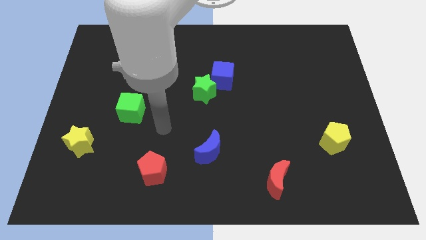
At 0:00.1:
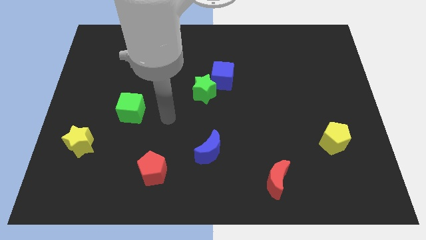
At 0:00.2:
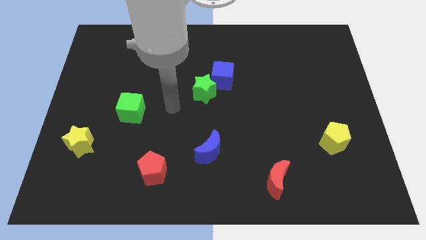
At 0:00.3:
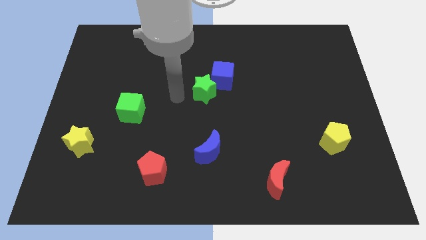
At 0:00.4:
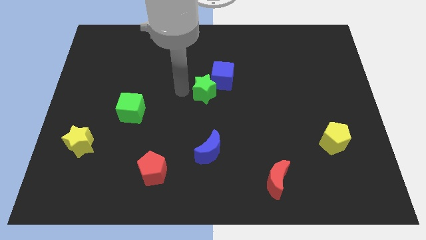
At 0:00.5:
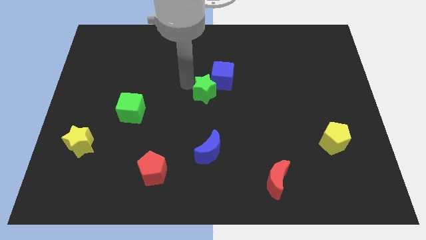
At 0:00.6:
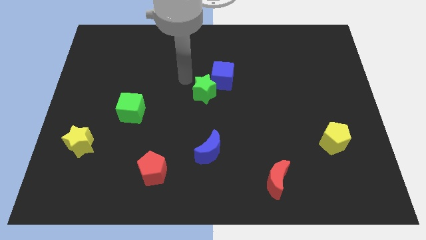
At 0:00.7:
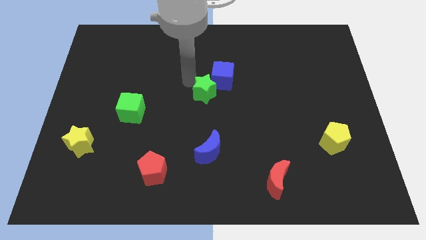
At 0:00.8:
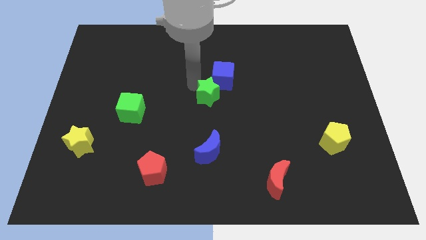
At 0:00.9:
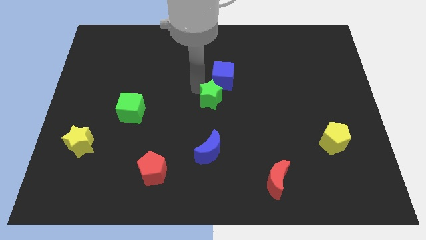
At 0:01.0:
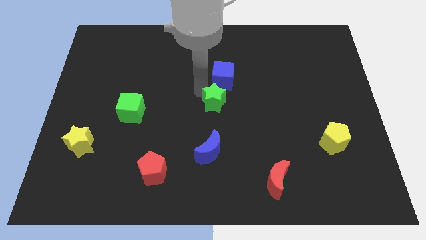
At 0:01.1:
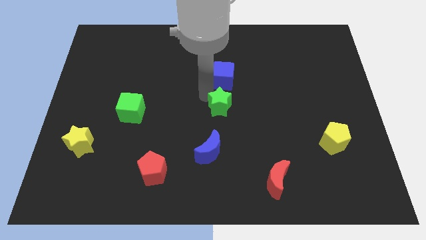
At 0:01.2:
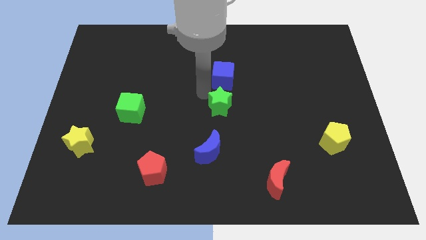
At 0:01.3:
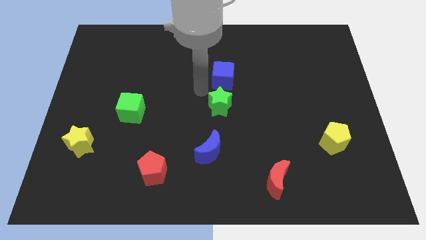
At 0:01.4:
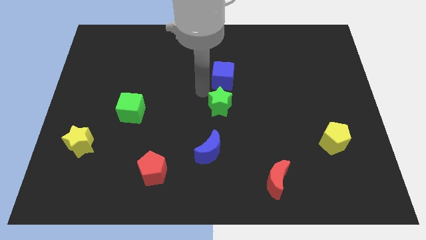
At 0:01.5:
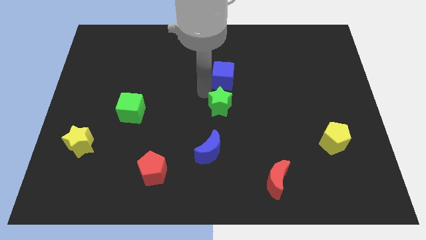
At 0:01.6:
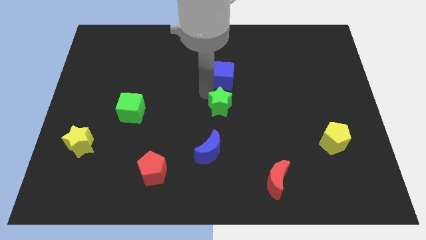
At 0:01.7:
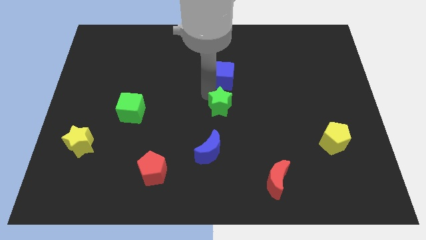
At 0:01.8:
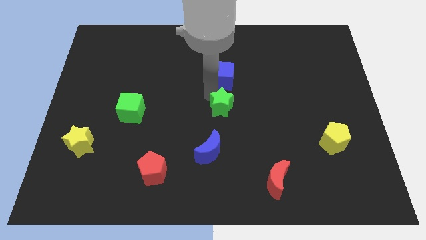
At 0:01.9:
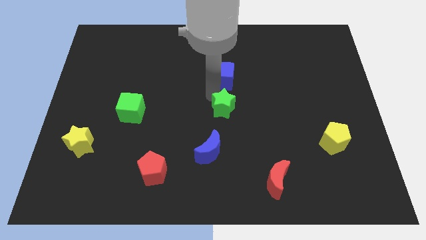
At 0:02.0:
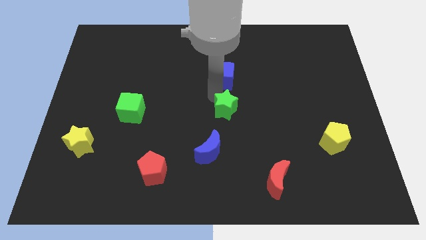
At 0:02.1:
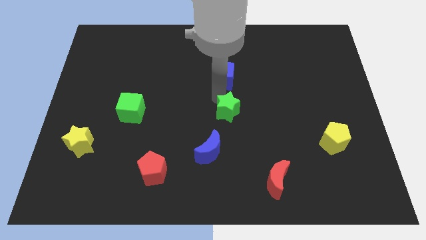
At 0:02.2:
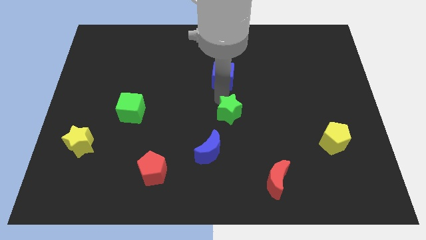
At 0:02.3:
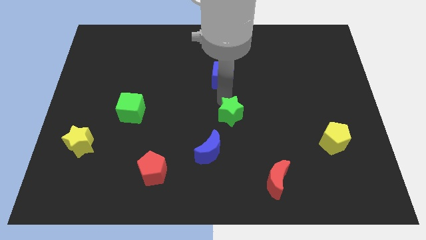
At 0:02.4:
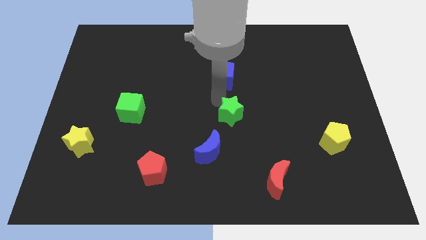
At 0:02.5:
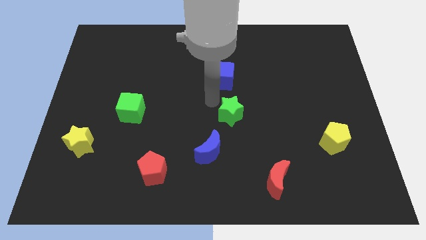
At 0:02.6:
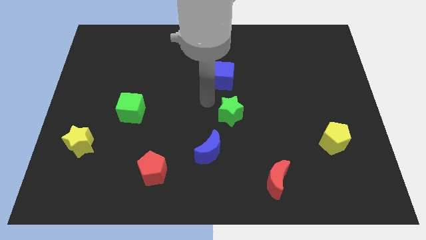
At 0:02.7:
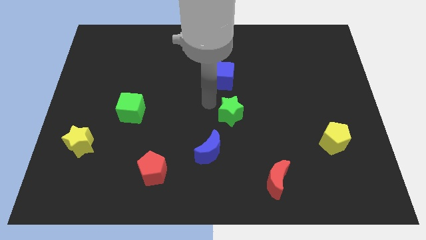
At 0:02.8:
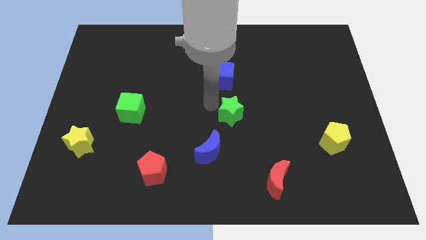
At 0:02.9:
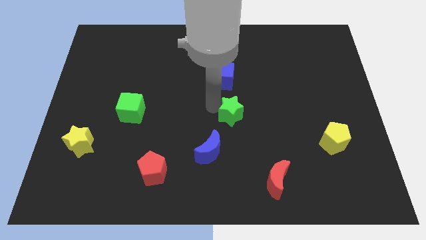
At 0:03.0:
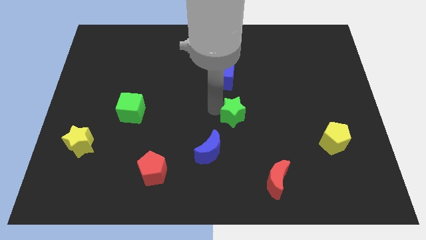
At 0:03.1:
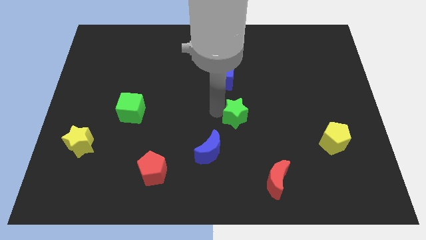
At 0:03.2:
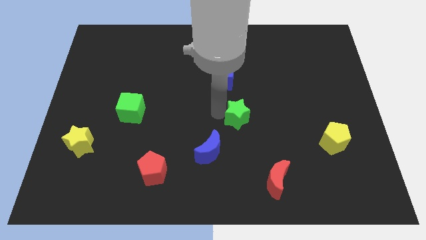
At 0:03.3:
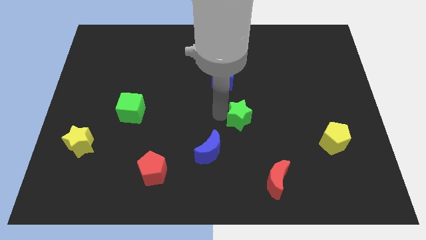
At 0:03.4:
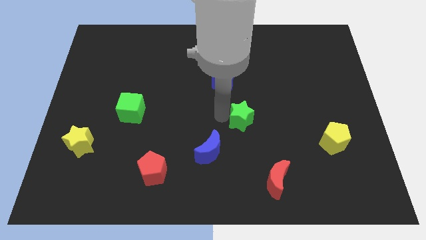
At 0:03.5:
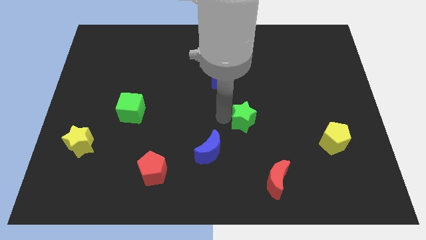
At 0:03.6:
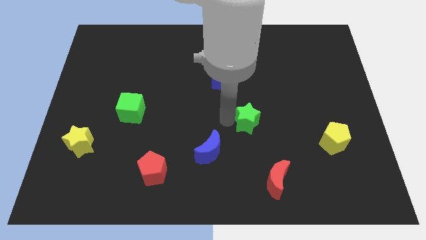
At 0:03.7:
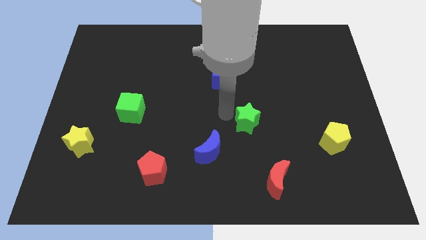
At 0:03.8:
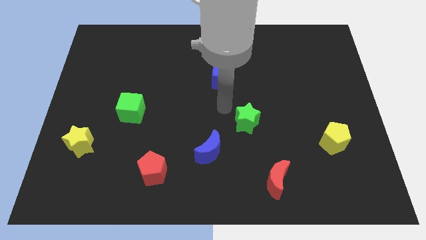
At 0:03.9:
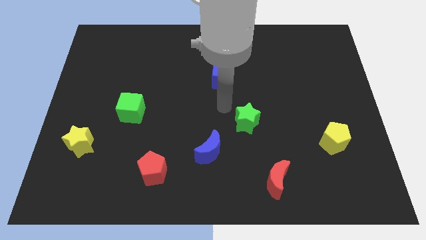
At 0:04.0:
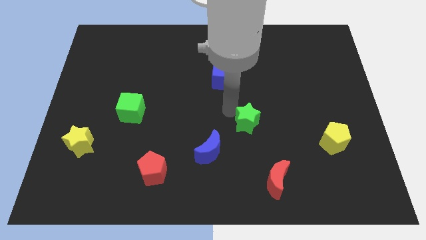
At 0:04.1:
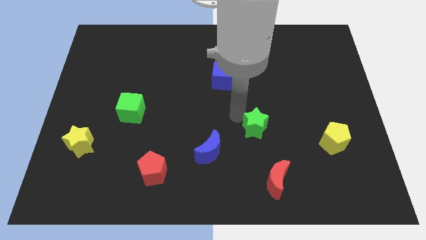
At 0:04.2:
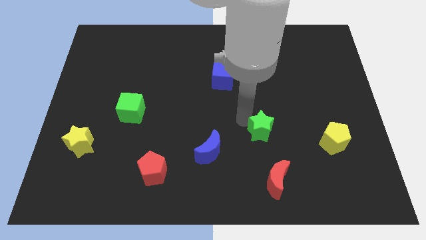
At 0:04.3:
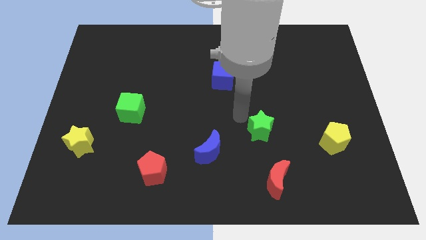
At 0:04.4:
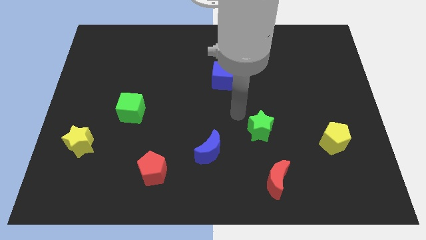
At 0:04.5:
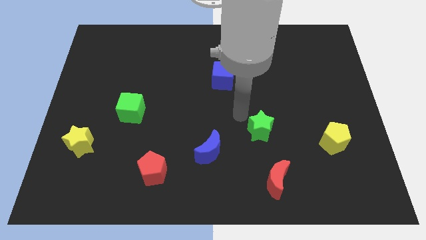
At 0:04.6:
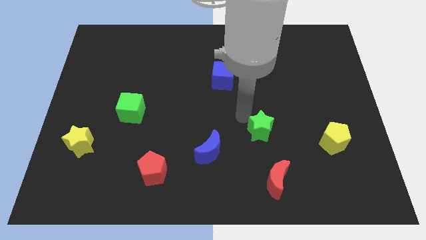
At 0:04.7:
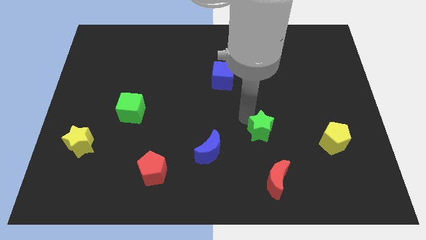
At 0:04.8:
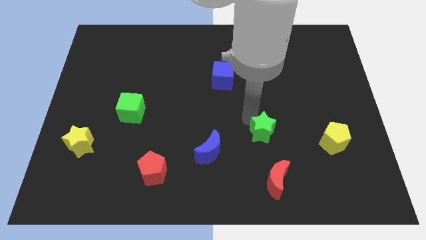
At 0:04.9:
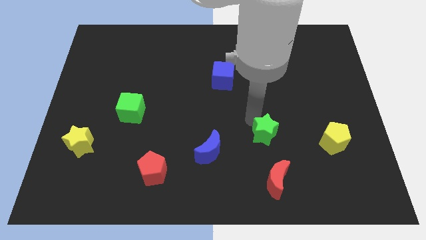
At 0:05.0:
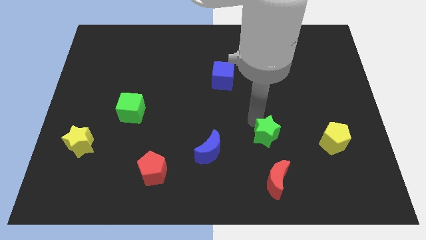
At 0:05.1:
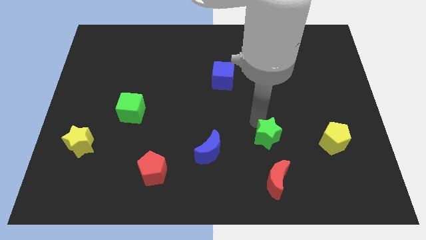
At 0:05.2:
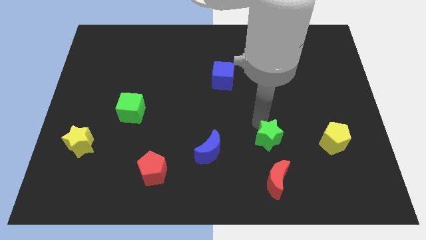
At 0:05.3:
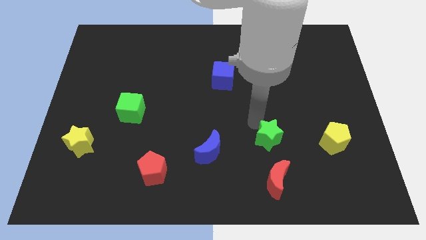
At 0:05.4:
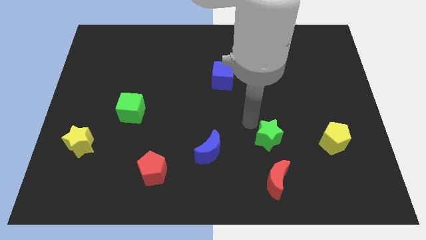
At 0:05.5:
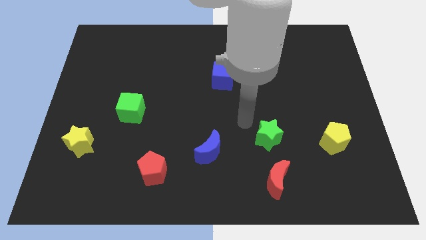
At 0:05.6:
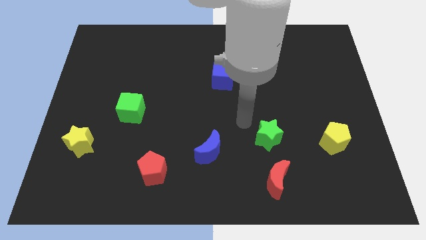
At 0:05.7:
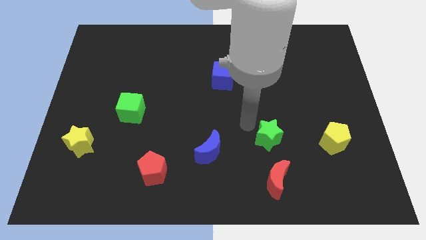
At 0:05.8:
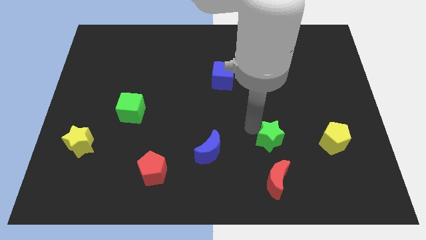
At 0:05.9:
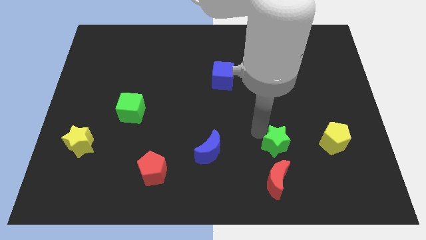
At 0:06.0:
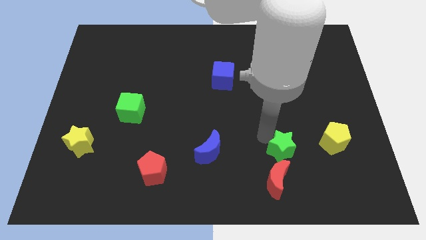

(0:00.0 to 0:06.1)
move the green star to the top right of the red moon

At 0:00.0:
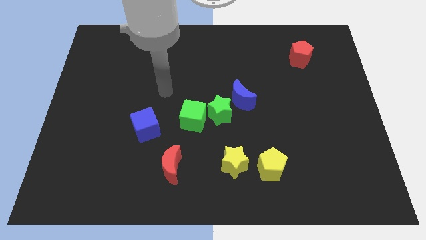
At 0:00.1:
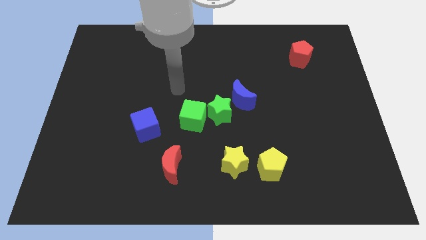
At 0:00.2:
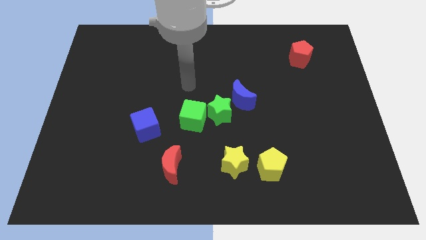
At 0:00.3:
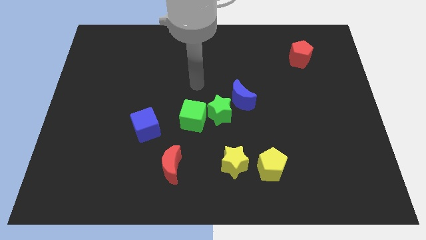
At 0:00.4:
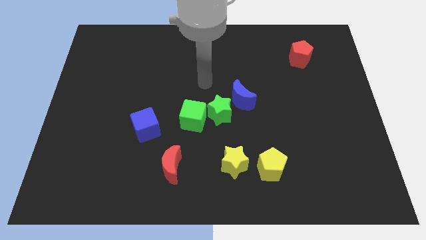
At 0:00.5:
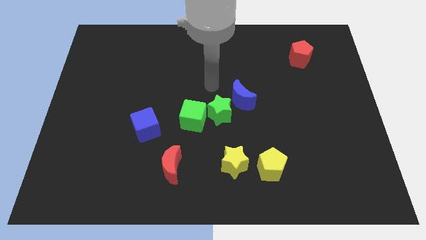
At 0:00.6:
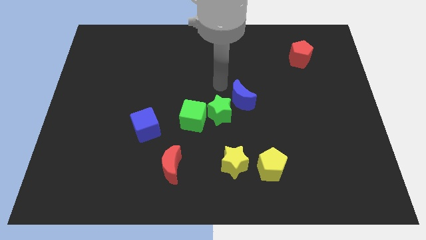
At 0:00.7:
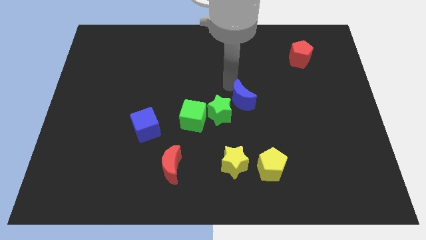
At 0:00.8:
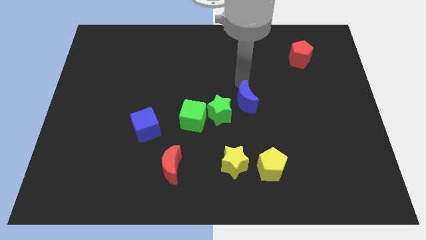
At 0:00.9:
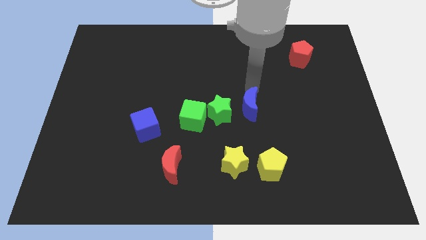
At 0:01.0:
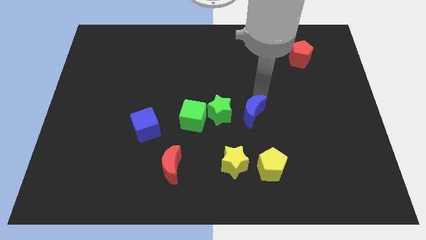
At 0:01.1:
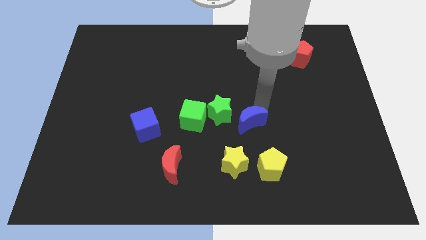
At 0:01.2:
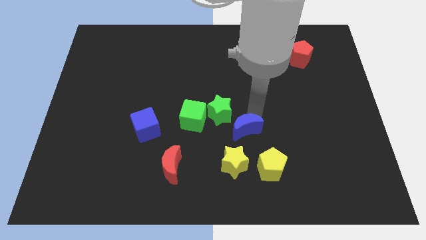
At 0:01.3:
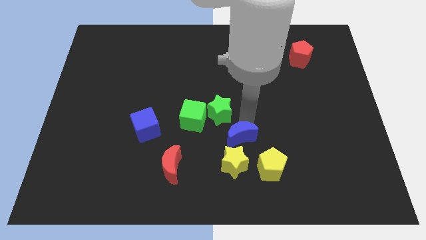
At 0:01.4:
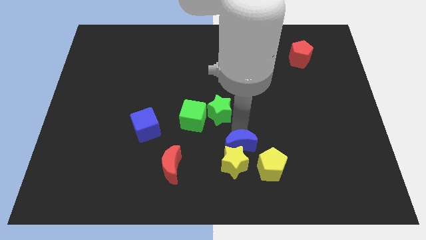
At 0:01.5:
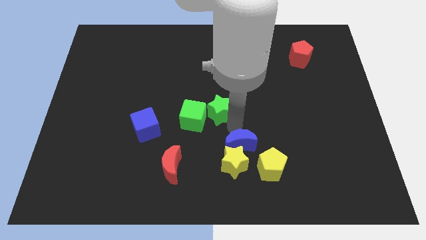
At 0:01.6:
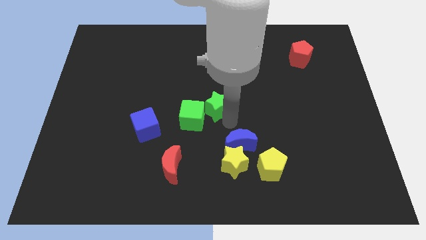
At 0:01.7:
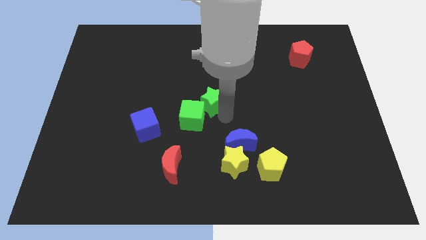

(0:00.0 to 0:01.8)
move the green star to the top of the green cube
